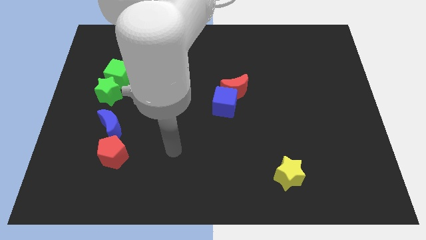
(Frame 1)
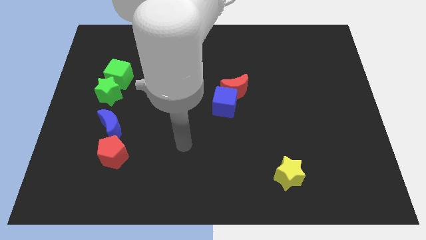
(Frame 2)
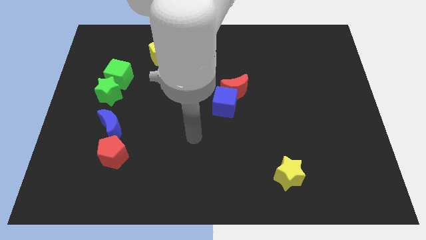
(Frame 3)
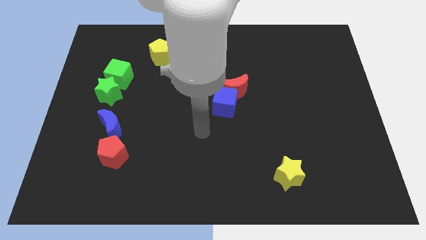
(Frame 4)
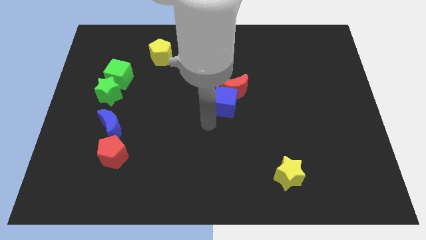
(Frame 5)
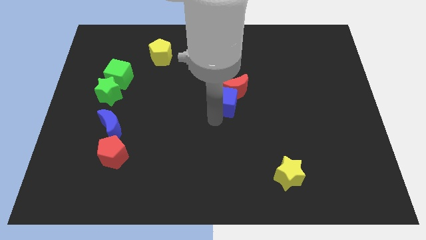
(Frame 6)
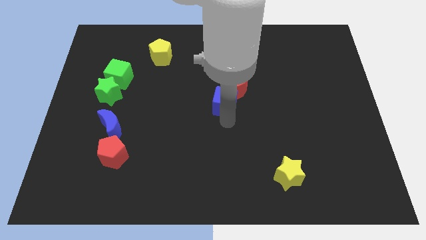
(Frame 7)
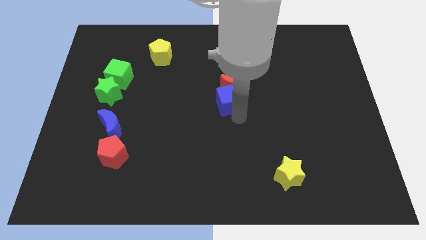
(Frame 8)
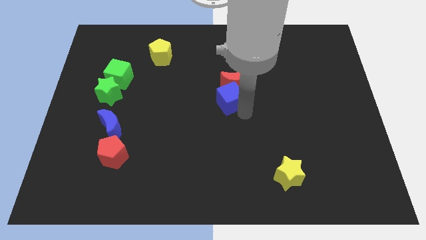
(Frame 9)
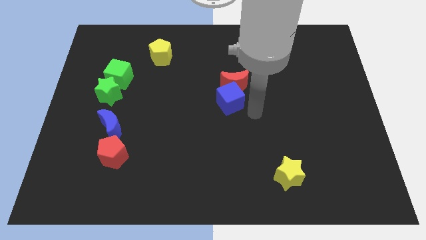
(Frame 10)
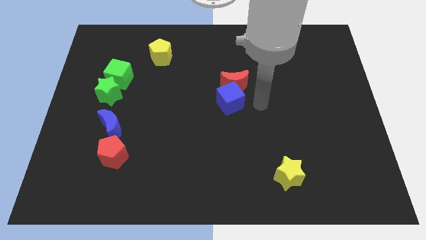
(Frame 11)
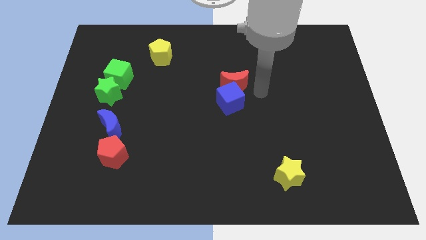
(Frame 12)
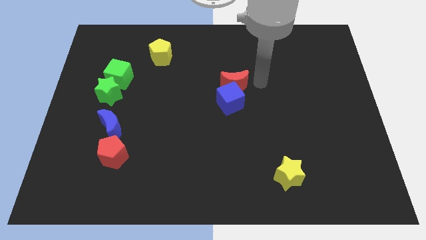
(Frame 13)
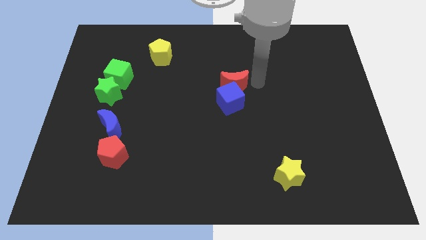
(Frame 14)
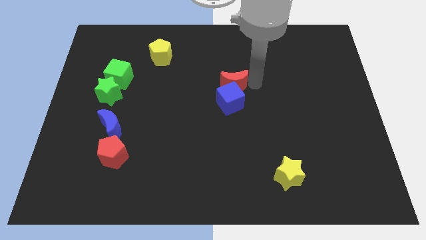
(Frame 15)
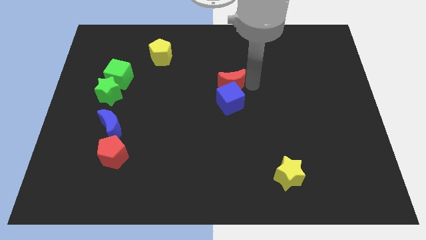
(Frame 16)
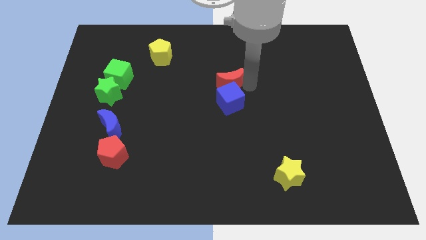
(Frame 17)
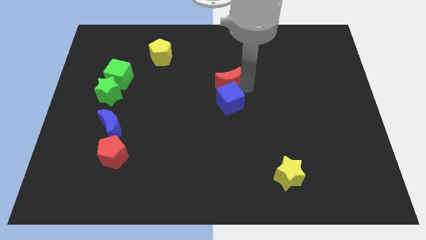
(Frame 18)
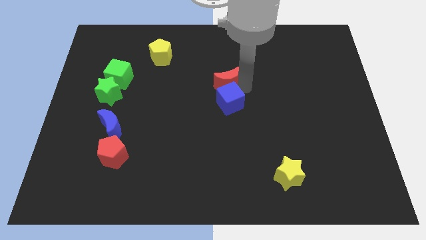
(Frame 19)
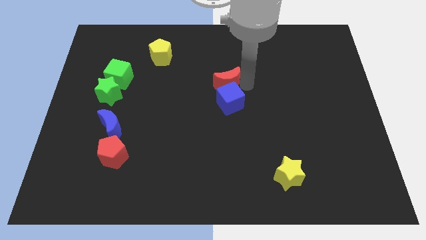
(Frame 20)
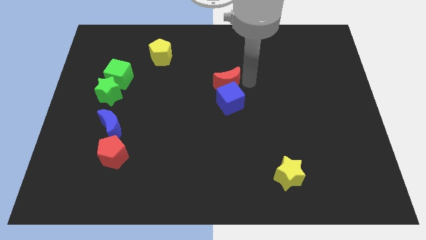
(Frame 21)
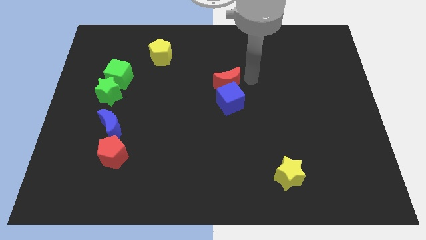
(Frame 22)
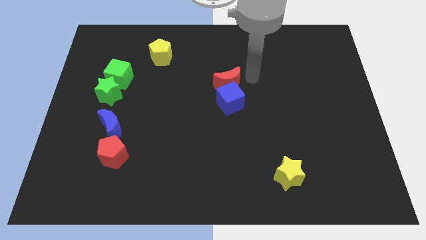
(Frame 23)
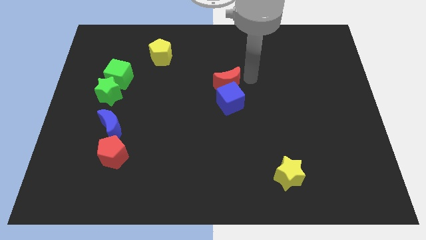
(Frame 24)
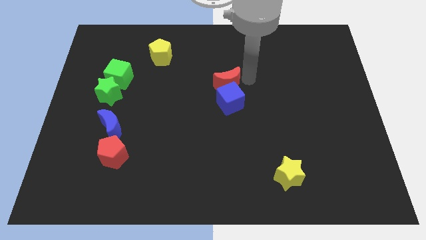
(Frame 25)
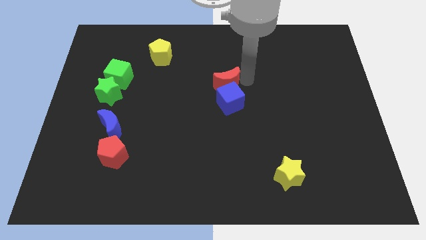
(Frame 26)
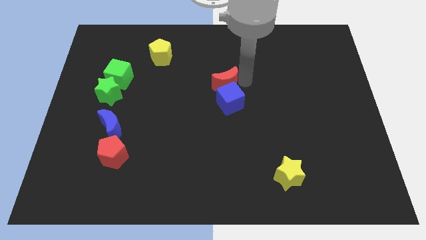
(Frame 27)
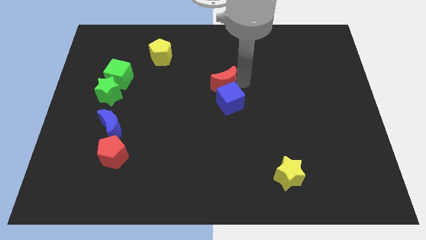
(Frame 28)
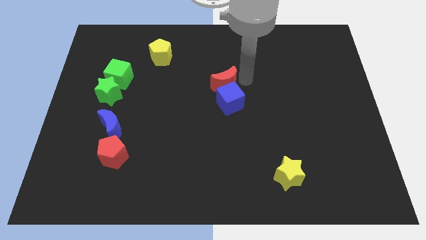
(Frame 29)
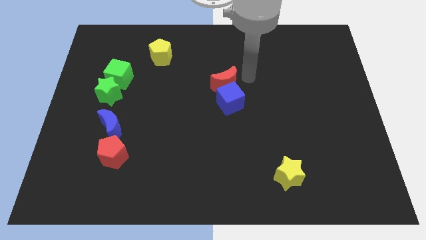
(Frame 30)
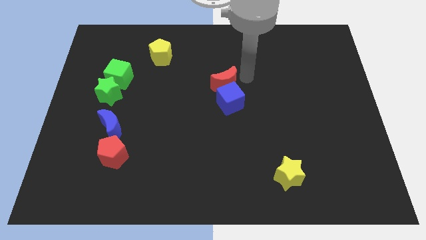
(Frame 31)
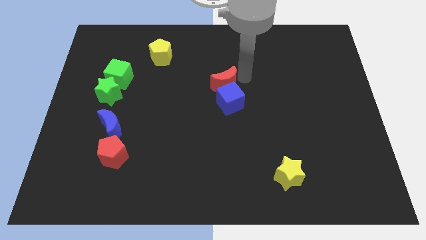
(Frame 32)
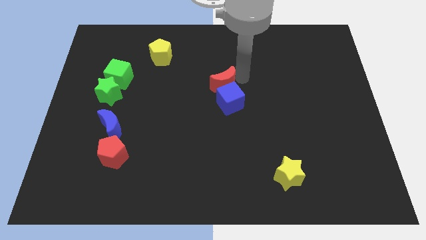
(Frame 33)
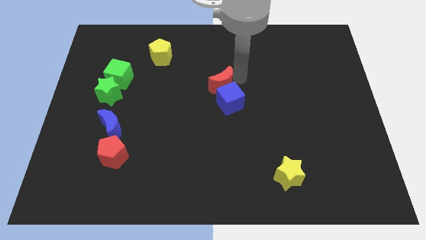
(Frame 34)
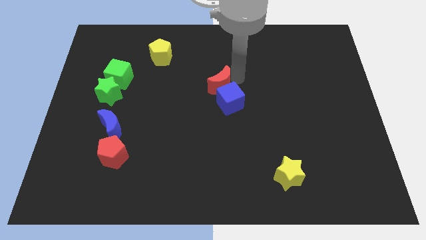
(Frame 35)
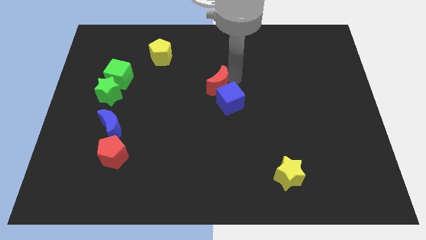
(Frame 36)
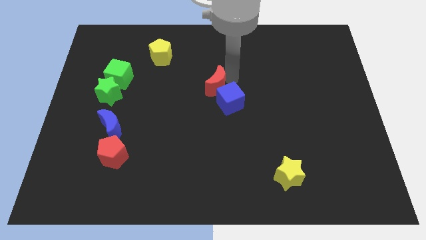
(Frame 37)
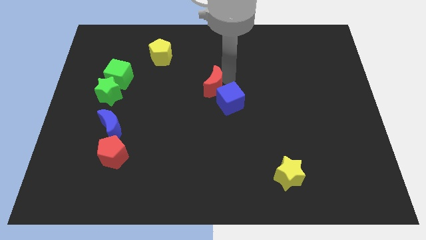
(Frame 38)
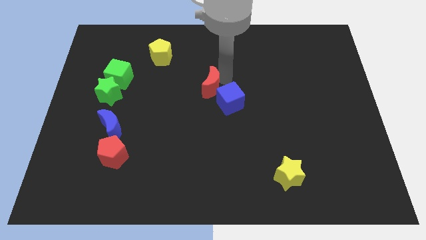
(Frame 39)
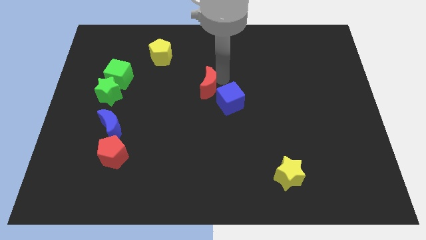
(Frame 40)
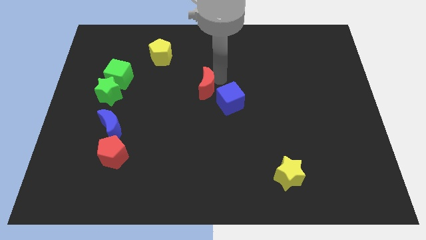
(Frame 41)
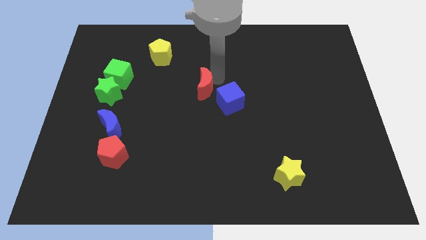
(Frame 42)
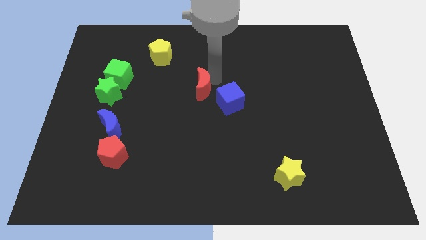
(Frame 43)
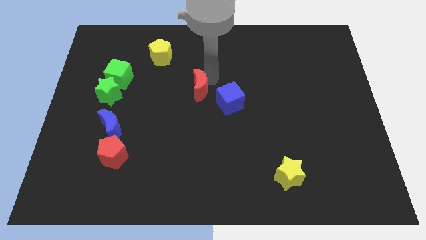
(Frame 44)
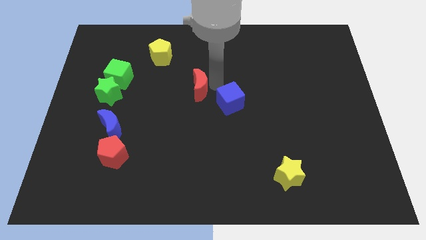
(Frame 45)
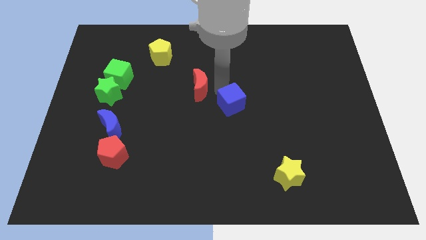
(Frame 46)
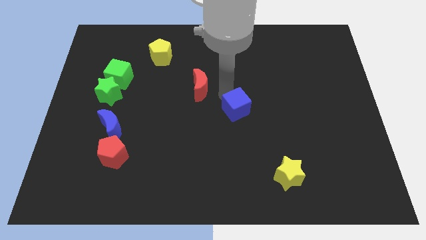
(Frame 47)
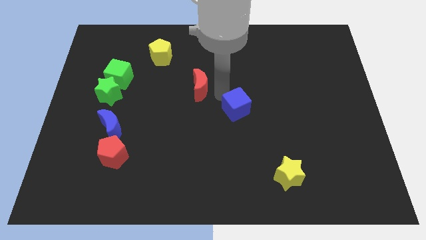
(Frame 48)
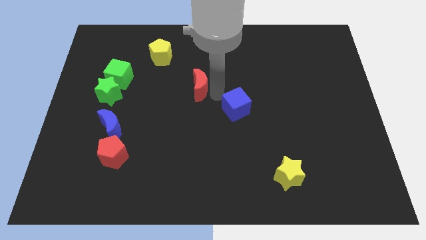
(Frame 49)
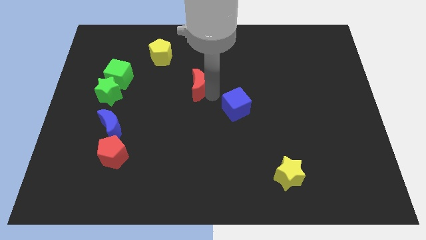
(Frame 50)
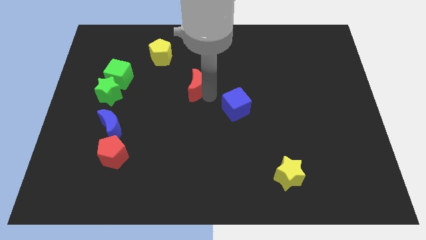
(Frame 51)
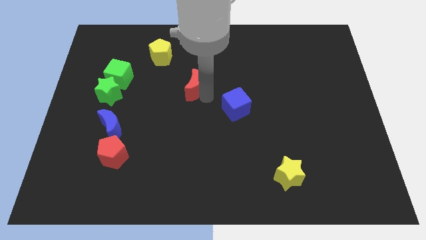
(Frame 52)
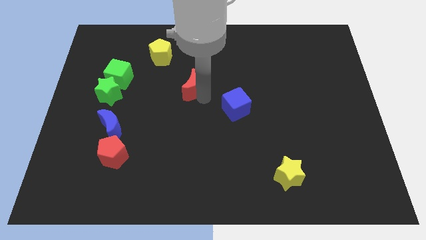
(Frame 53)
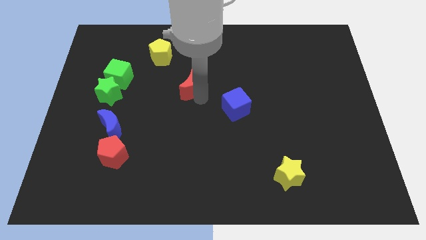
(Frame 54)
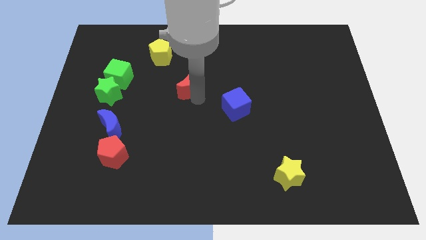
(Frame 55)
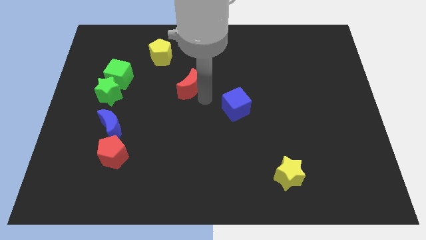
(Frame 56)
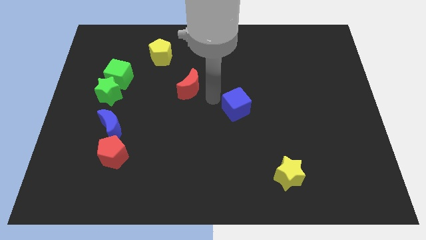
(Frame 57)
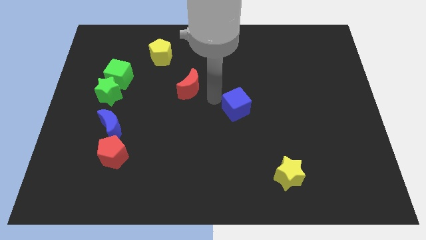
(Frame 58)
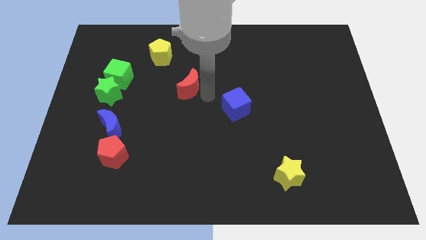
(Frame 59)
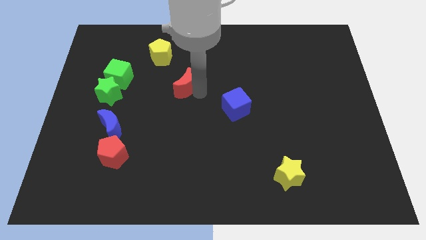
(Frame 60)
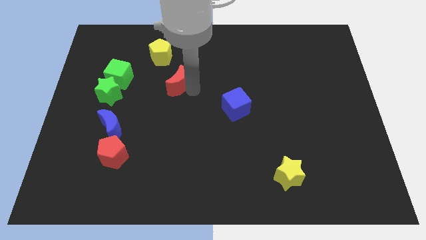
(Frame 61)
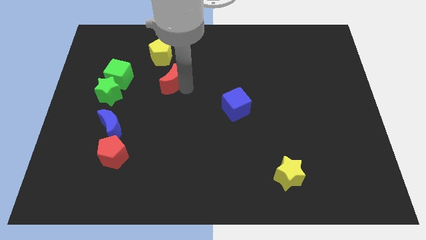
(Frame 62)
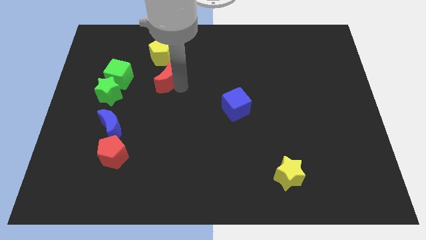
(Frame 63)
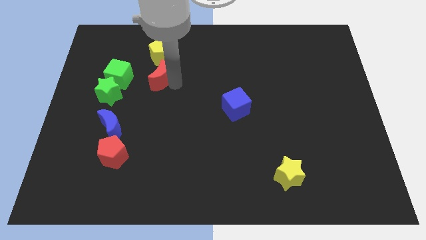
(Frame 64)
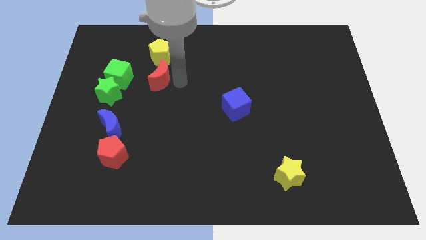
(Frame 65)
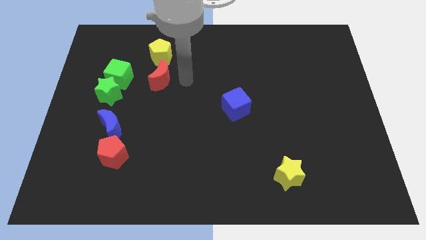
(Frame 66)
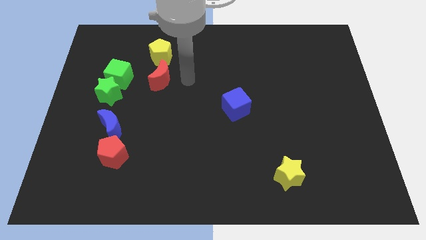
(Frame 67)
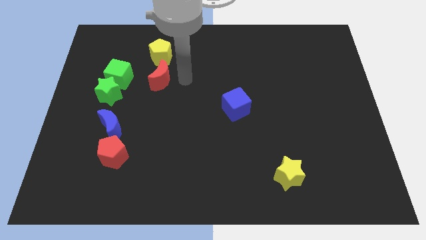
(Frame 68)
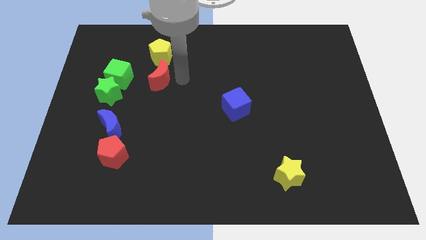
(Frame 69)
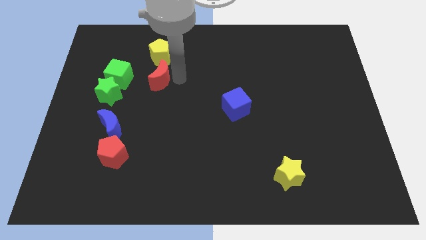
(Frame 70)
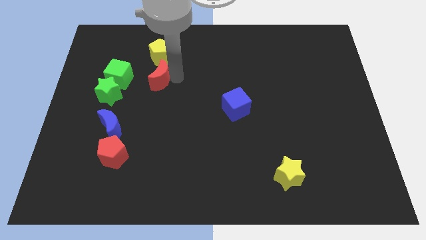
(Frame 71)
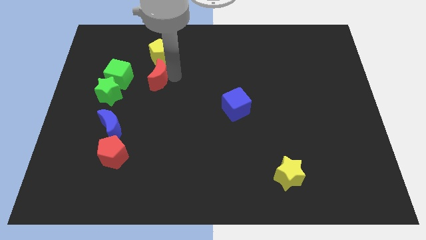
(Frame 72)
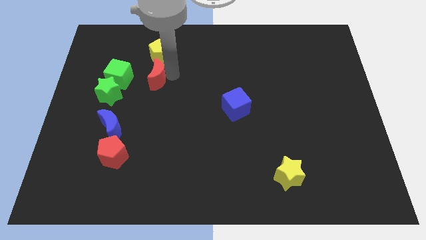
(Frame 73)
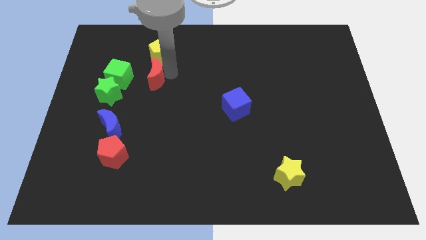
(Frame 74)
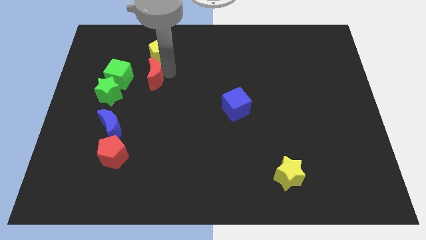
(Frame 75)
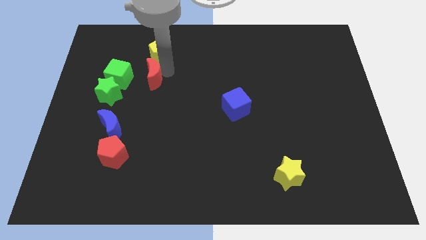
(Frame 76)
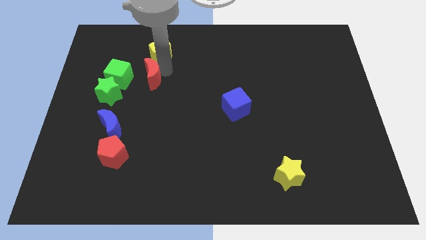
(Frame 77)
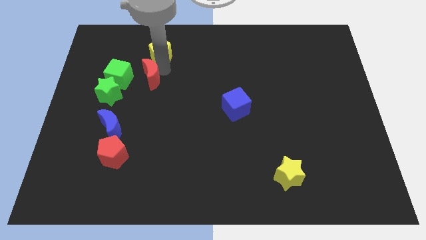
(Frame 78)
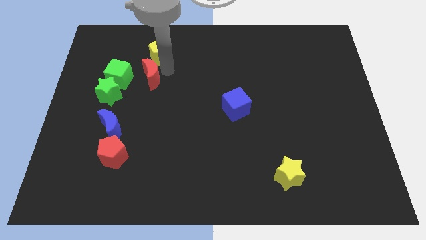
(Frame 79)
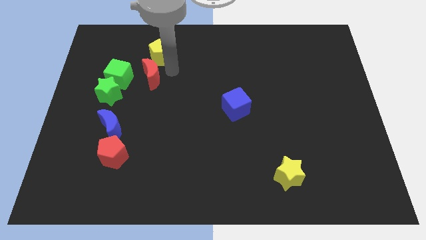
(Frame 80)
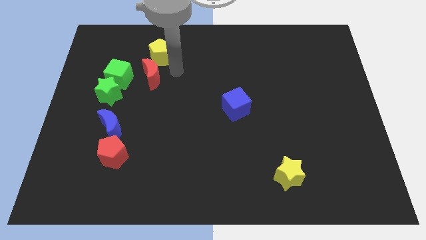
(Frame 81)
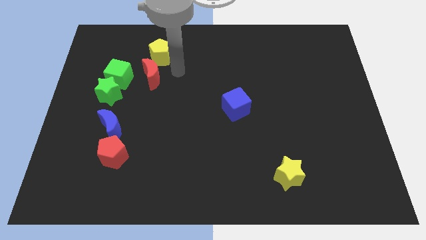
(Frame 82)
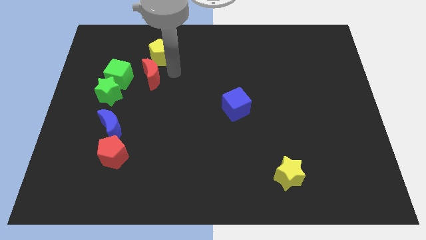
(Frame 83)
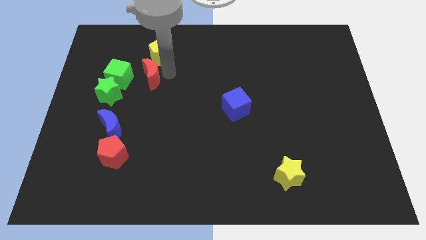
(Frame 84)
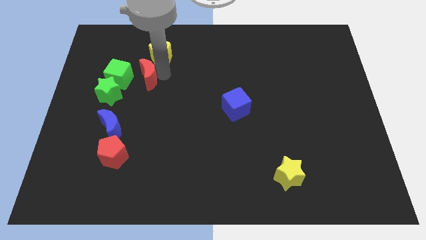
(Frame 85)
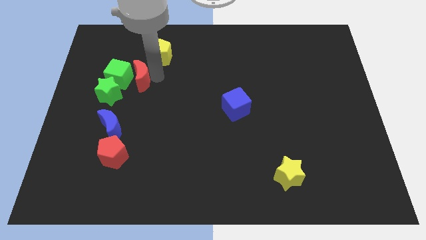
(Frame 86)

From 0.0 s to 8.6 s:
push the red moon towards the green cube
